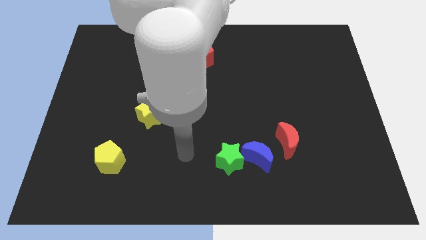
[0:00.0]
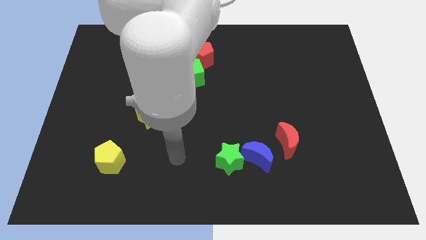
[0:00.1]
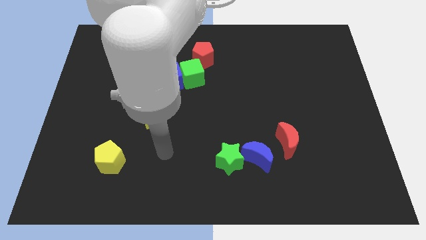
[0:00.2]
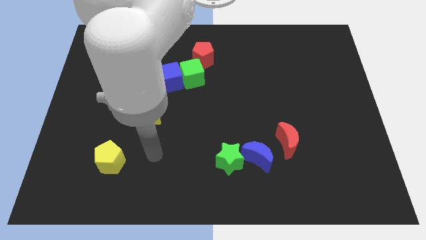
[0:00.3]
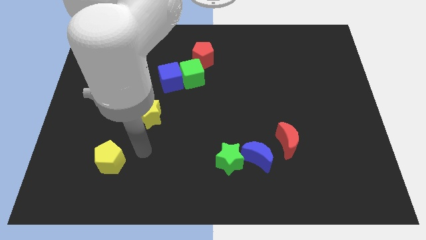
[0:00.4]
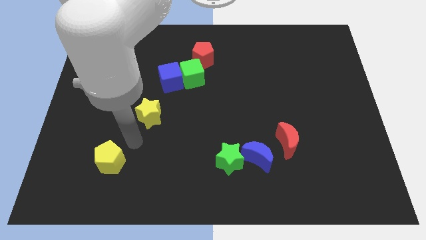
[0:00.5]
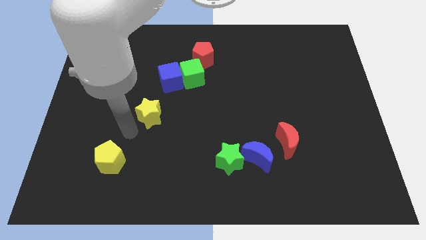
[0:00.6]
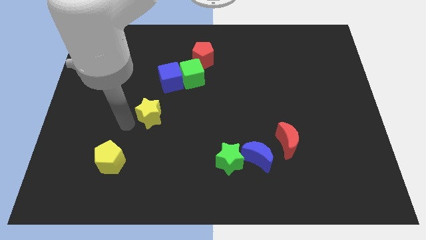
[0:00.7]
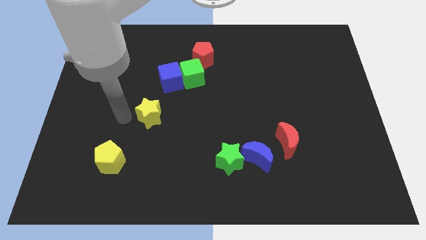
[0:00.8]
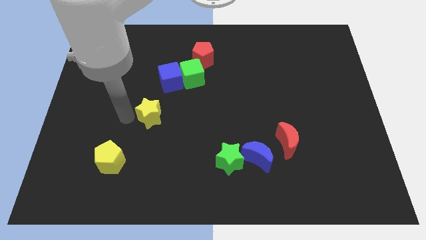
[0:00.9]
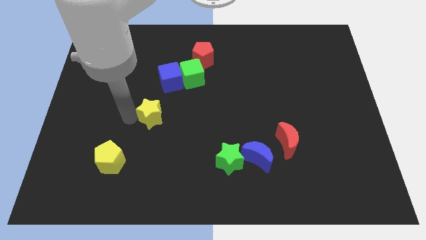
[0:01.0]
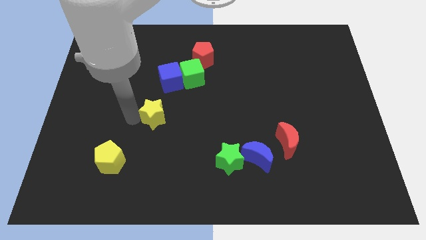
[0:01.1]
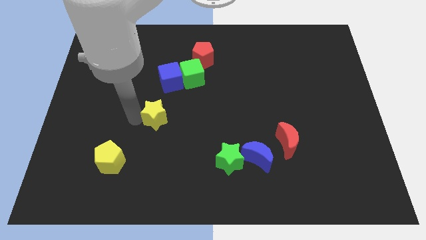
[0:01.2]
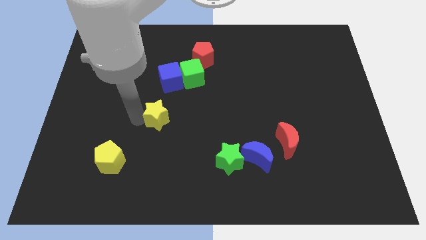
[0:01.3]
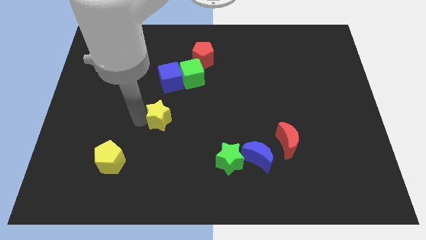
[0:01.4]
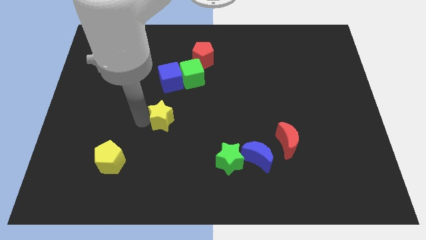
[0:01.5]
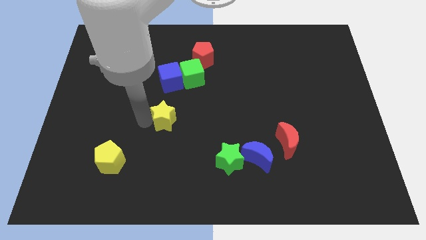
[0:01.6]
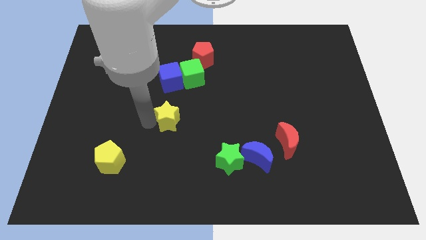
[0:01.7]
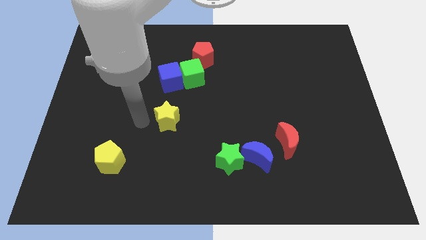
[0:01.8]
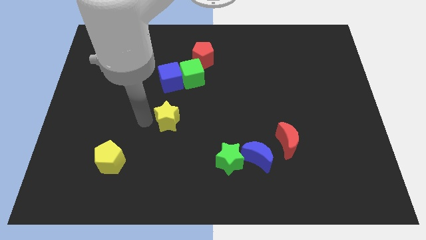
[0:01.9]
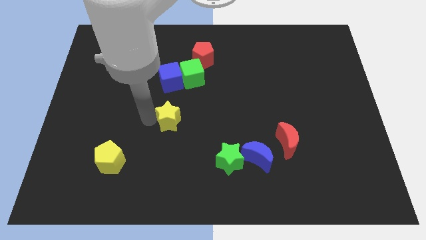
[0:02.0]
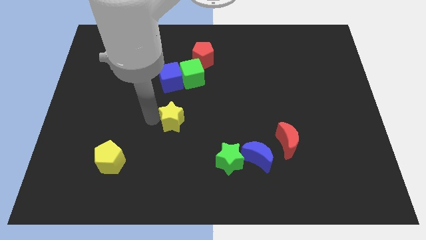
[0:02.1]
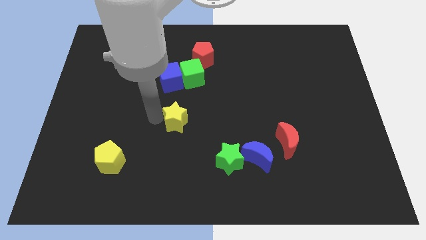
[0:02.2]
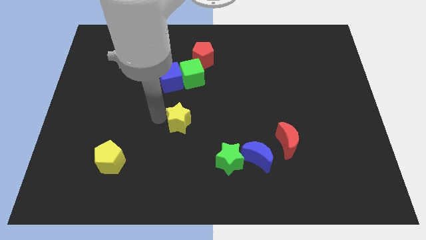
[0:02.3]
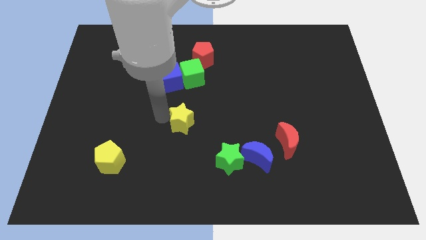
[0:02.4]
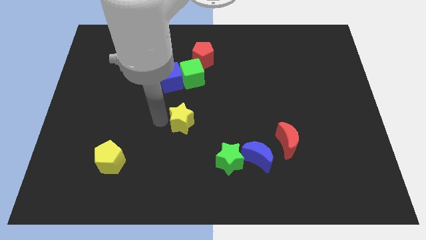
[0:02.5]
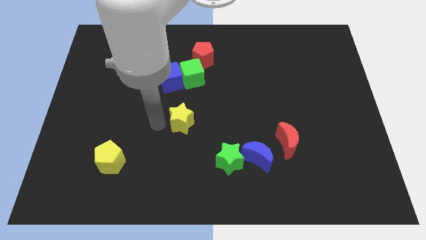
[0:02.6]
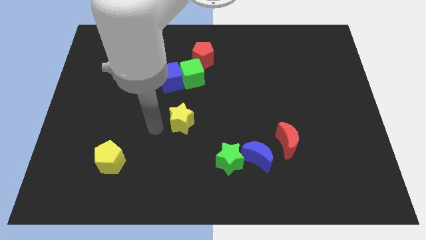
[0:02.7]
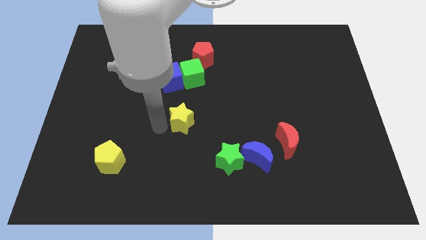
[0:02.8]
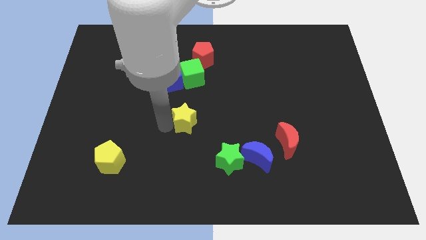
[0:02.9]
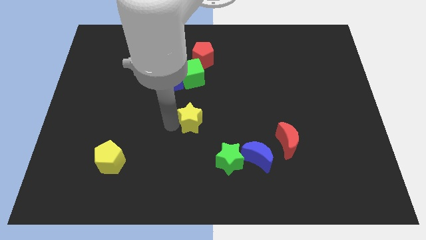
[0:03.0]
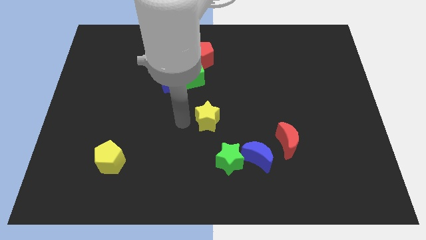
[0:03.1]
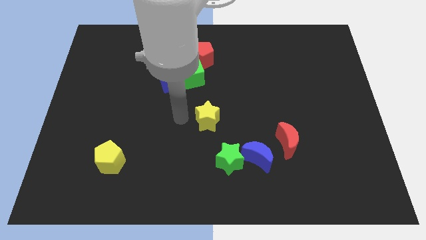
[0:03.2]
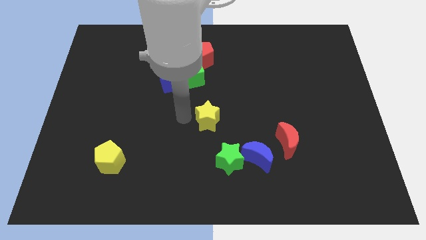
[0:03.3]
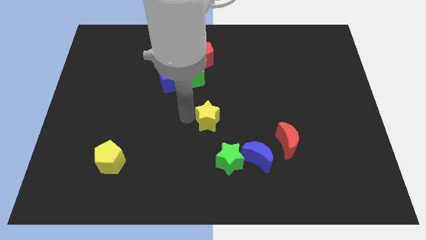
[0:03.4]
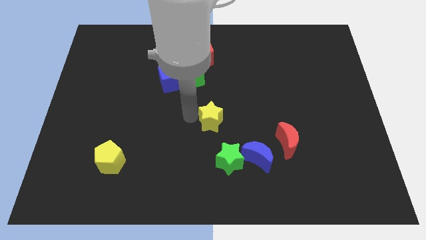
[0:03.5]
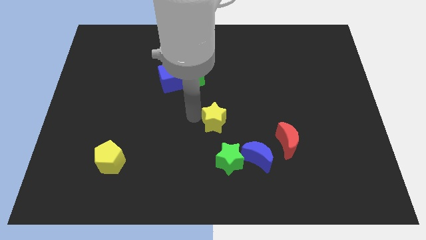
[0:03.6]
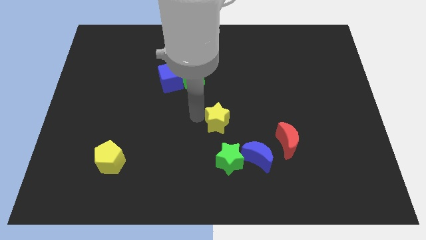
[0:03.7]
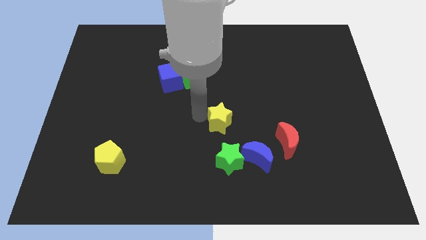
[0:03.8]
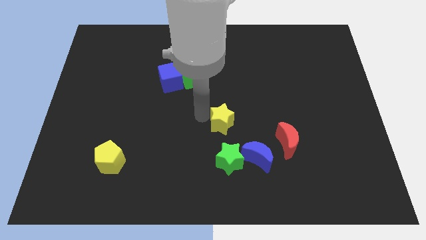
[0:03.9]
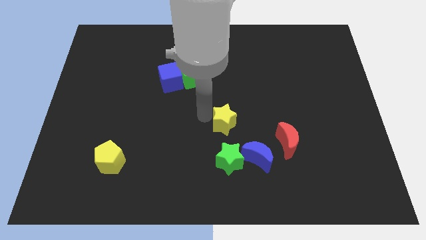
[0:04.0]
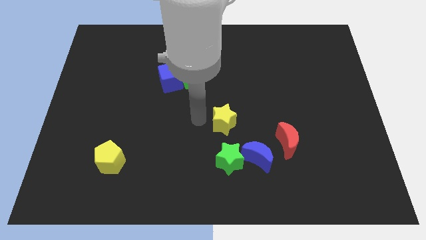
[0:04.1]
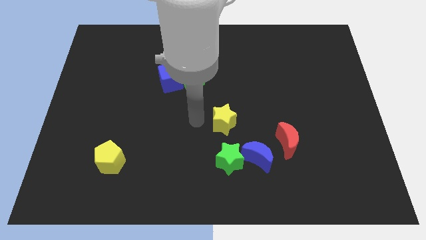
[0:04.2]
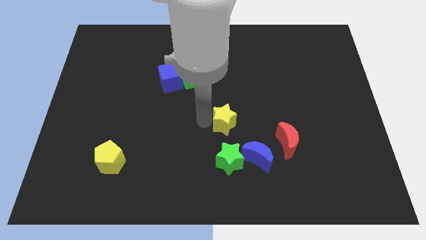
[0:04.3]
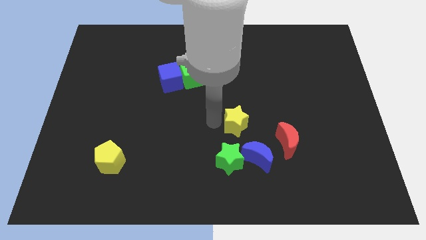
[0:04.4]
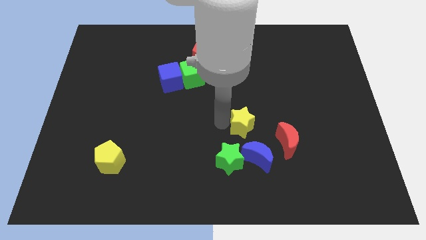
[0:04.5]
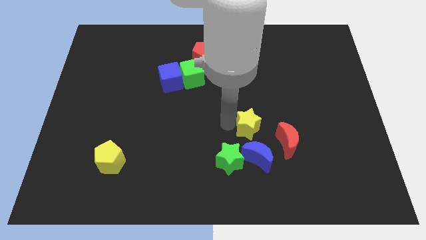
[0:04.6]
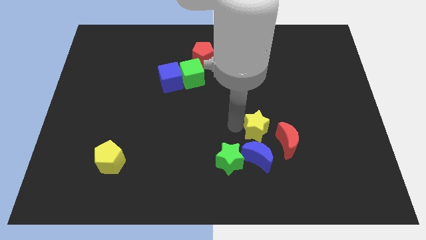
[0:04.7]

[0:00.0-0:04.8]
put the yellow star to the top right of the blue moon

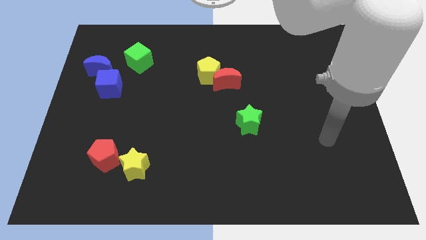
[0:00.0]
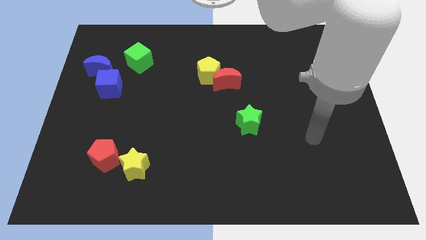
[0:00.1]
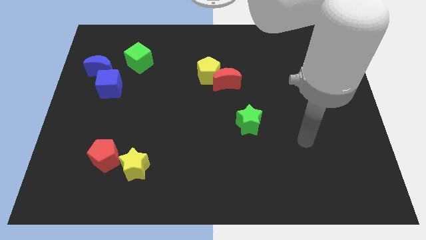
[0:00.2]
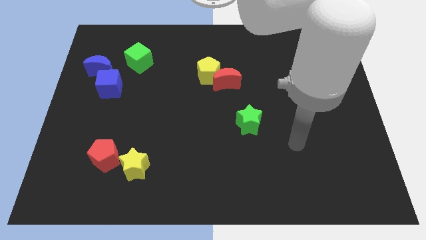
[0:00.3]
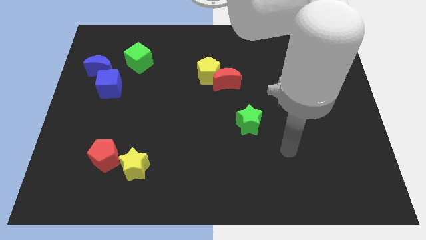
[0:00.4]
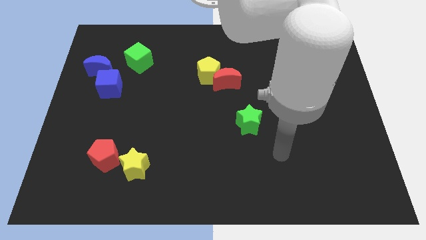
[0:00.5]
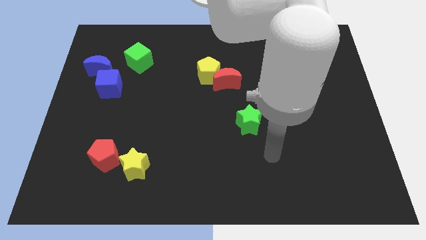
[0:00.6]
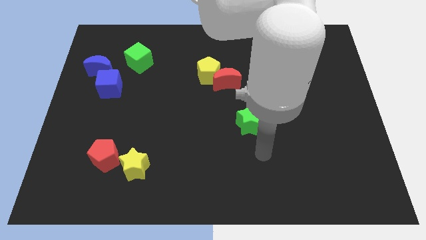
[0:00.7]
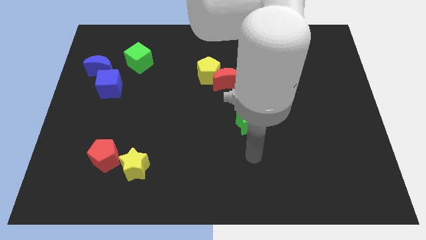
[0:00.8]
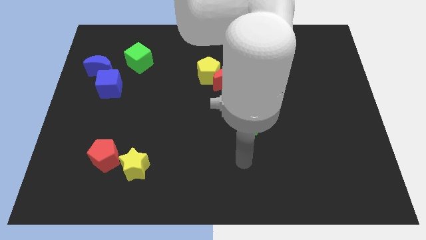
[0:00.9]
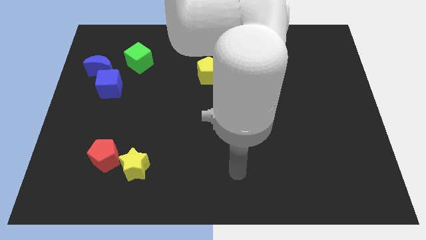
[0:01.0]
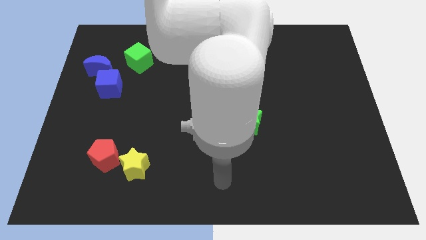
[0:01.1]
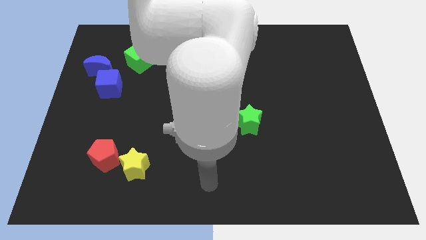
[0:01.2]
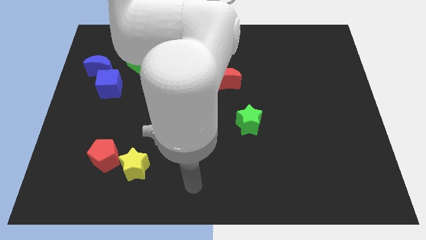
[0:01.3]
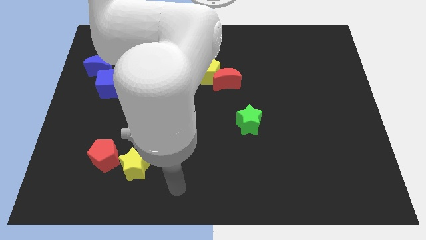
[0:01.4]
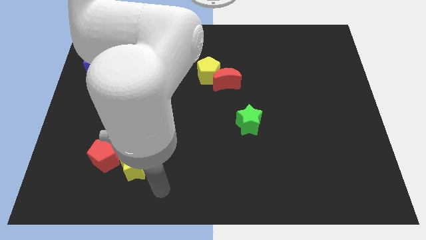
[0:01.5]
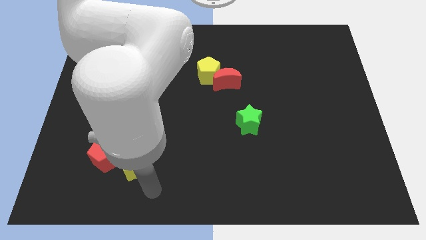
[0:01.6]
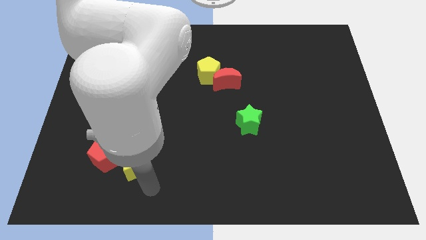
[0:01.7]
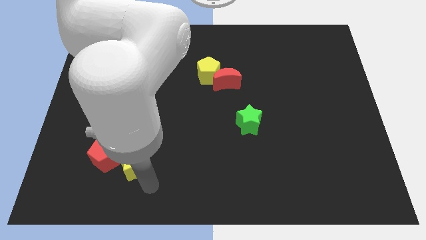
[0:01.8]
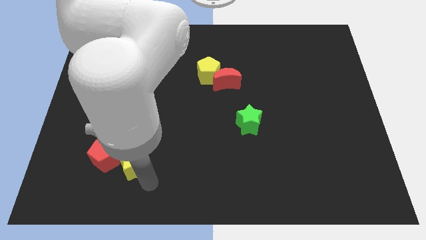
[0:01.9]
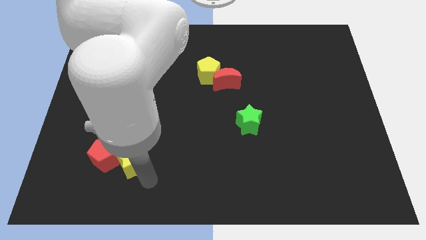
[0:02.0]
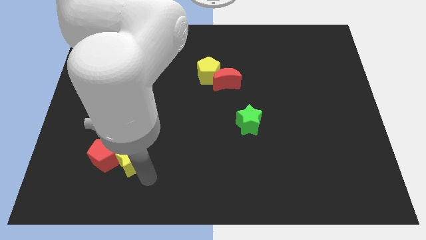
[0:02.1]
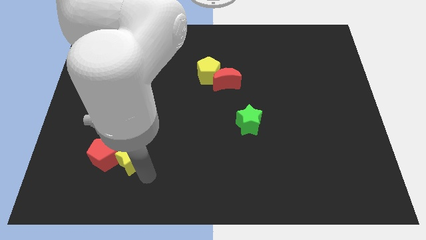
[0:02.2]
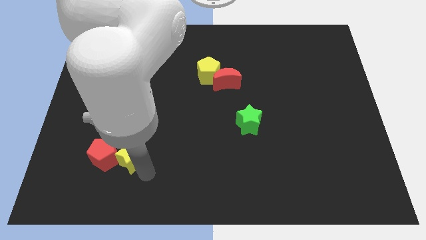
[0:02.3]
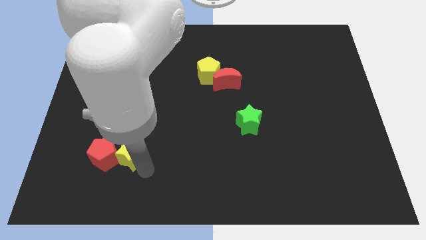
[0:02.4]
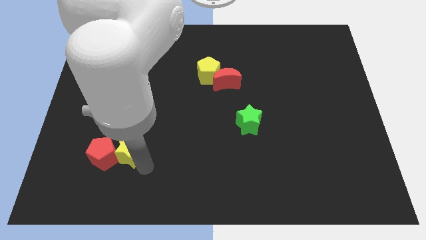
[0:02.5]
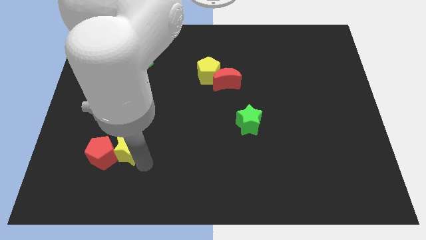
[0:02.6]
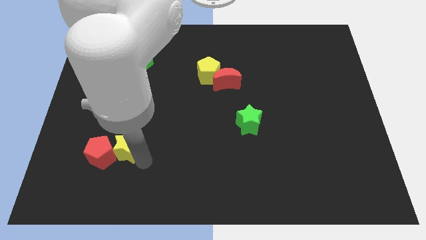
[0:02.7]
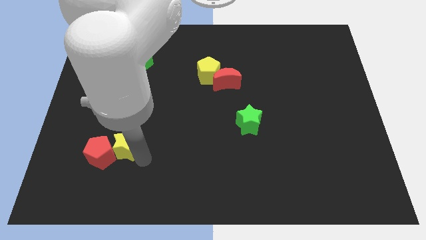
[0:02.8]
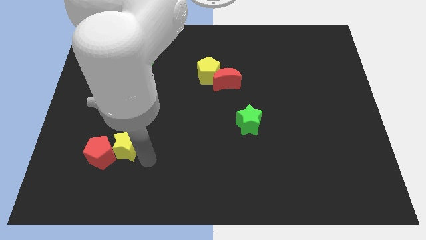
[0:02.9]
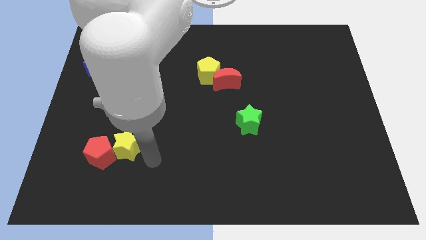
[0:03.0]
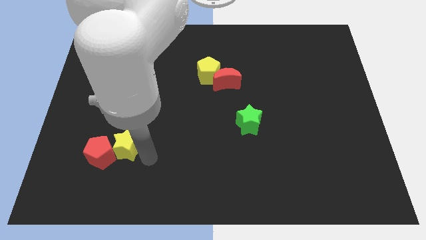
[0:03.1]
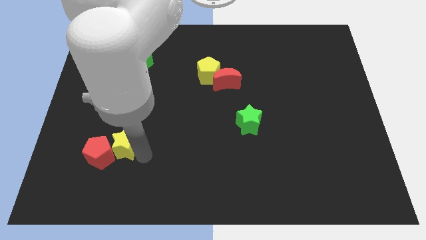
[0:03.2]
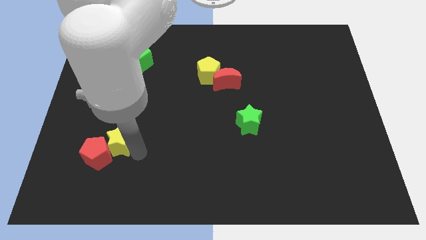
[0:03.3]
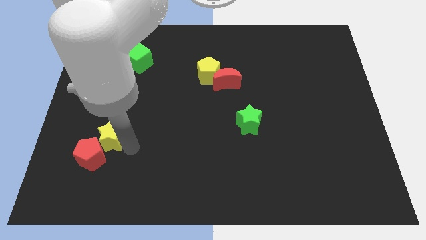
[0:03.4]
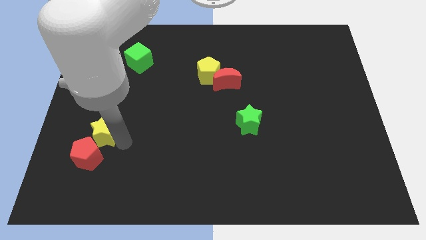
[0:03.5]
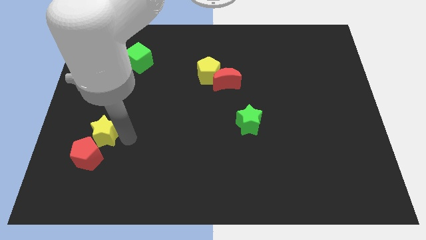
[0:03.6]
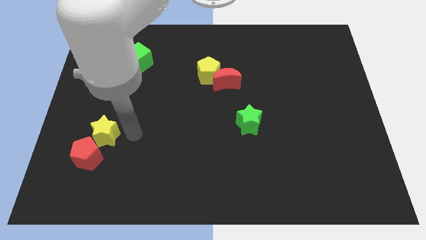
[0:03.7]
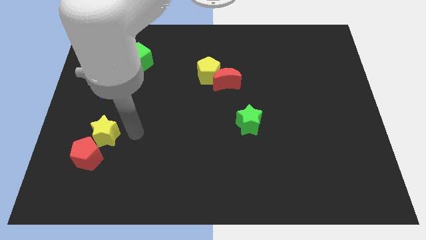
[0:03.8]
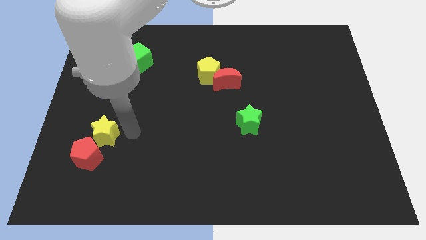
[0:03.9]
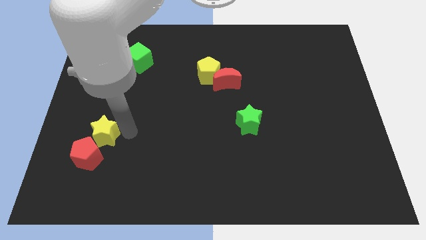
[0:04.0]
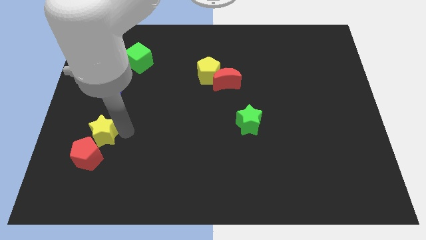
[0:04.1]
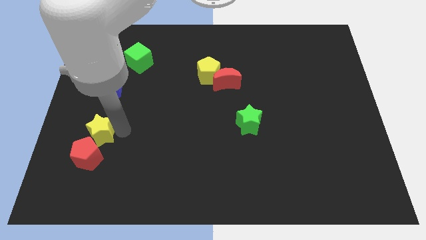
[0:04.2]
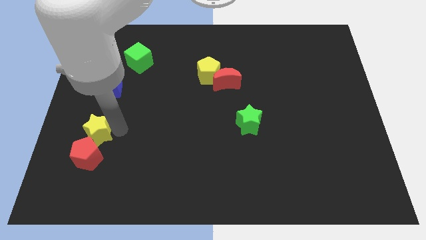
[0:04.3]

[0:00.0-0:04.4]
move the yellow star to the top left of the red pentagon
